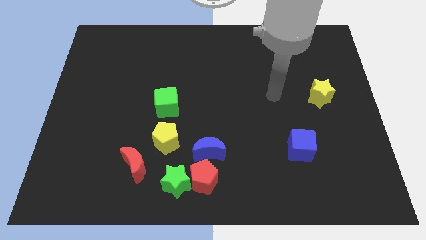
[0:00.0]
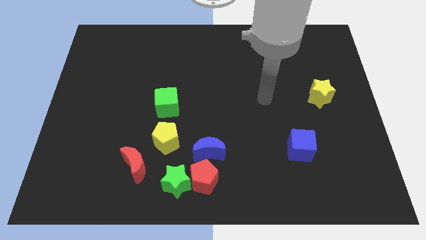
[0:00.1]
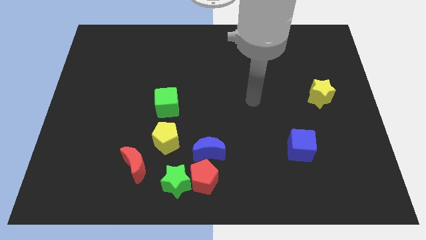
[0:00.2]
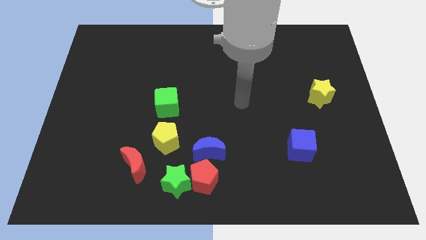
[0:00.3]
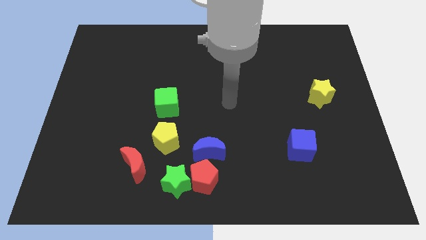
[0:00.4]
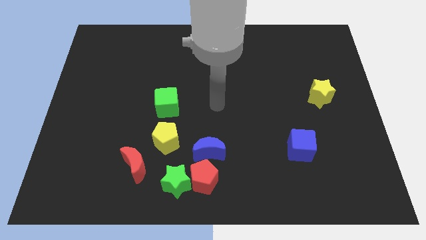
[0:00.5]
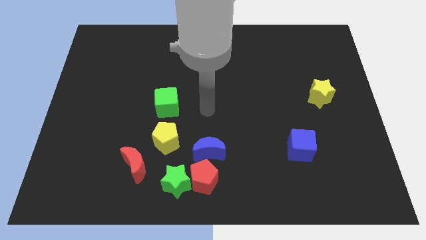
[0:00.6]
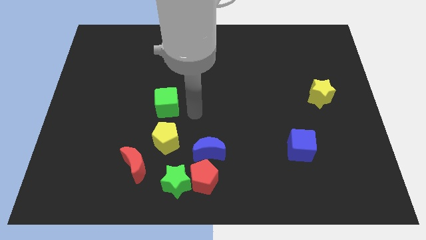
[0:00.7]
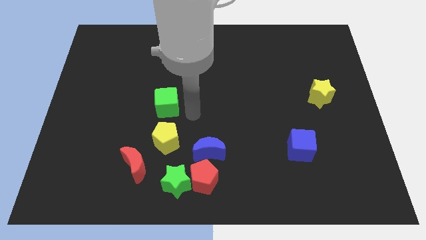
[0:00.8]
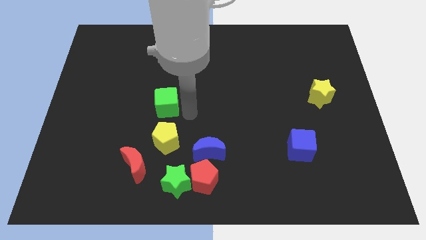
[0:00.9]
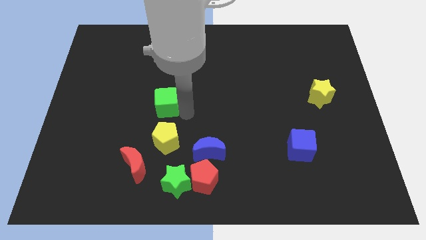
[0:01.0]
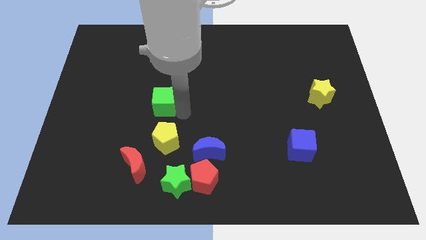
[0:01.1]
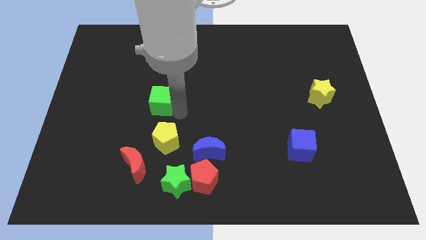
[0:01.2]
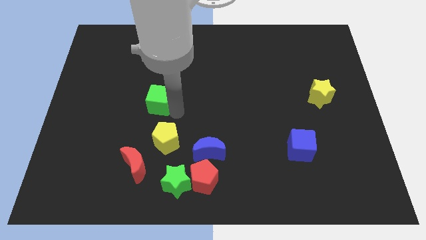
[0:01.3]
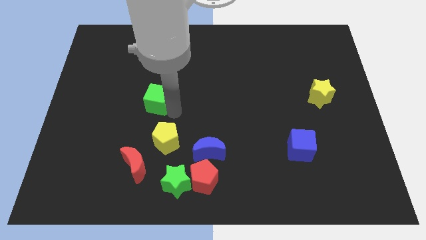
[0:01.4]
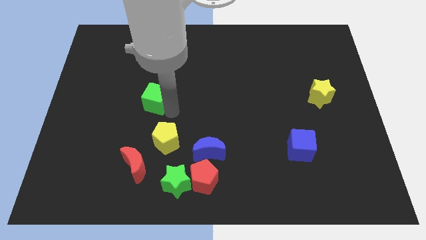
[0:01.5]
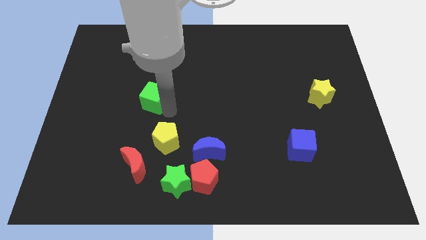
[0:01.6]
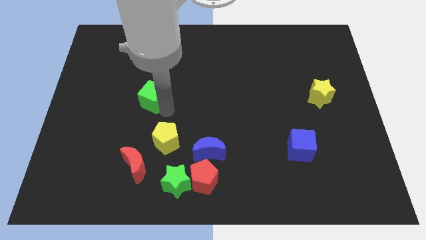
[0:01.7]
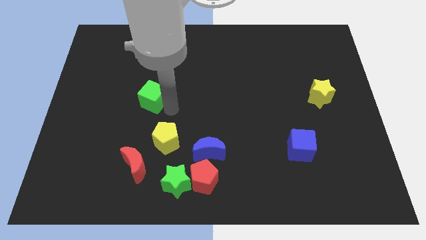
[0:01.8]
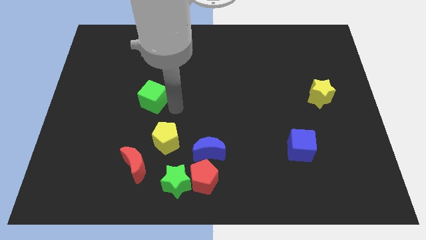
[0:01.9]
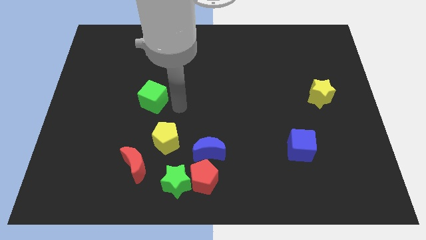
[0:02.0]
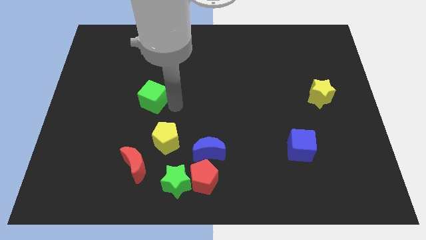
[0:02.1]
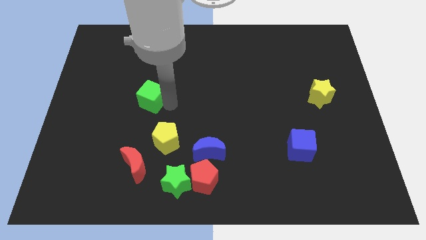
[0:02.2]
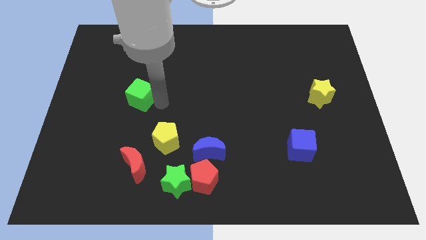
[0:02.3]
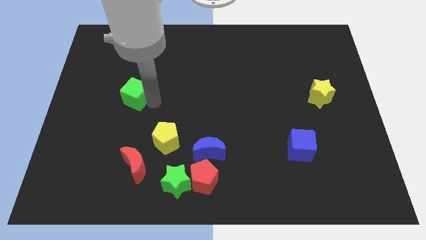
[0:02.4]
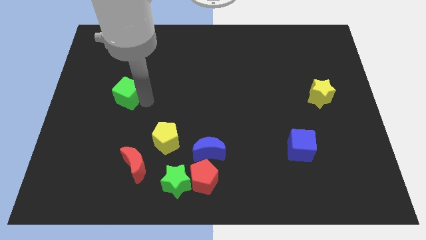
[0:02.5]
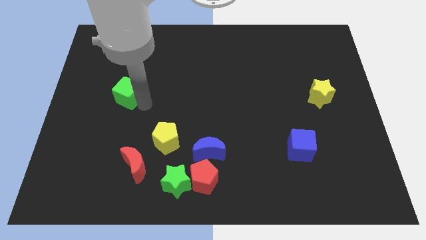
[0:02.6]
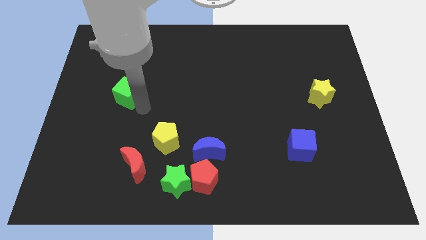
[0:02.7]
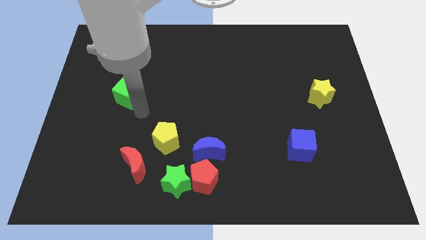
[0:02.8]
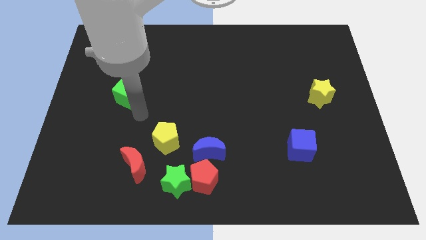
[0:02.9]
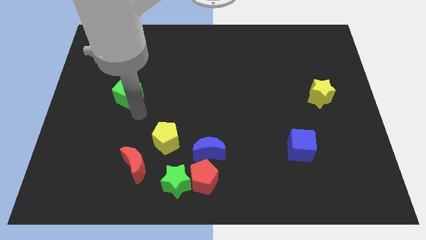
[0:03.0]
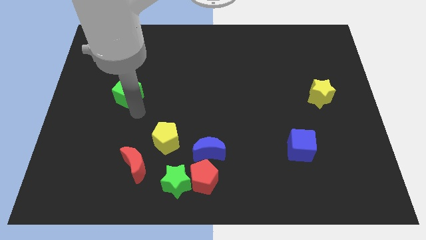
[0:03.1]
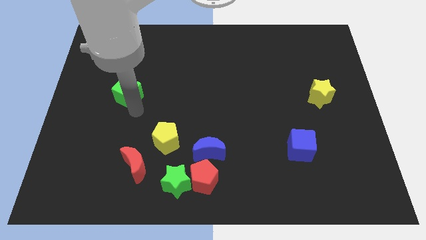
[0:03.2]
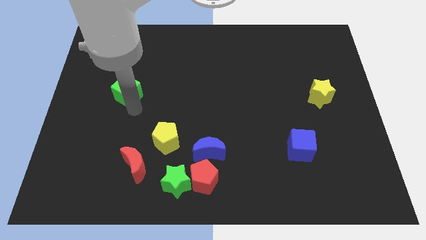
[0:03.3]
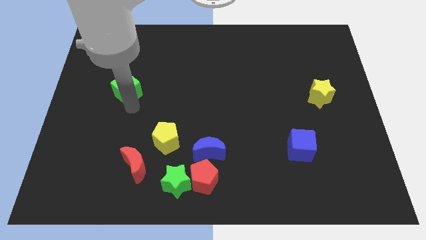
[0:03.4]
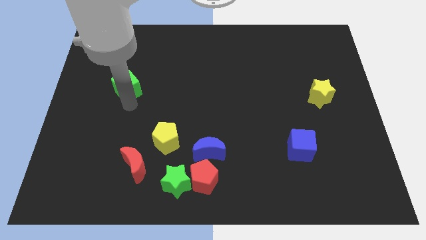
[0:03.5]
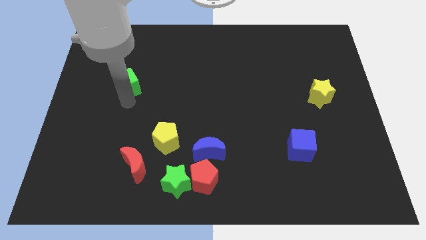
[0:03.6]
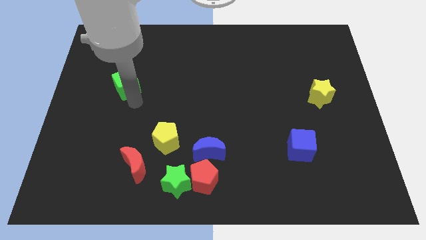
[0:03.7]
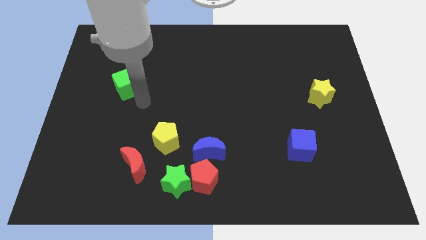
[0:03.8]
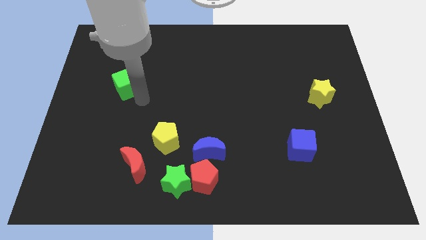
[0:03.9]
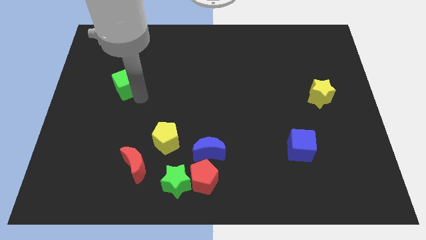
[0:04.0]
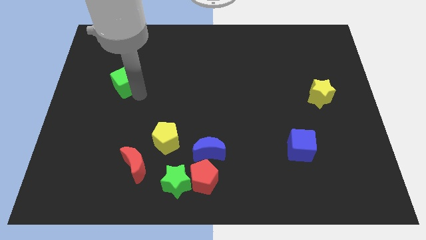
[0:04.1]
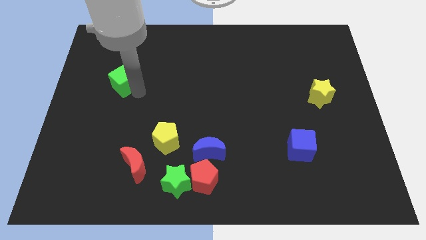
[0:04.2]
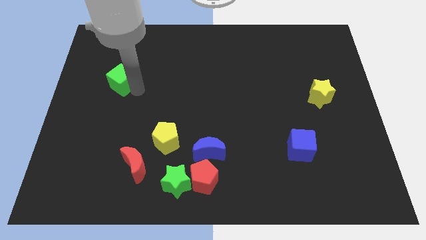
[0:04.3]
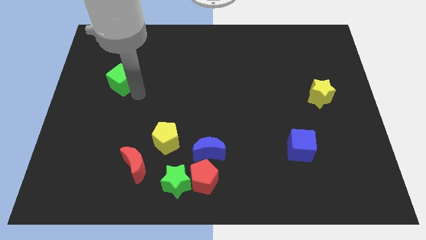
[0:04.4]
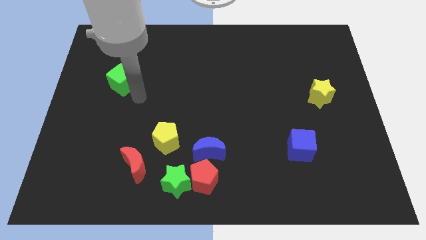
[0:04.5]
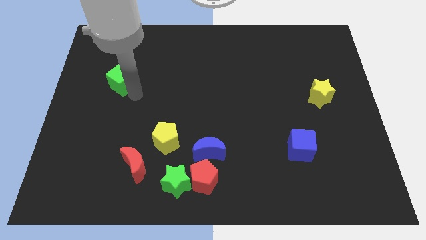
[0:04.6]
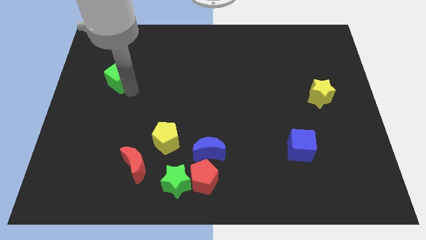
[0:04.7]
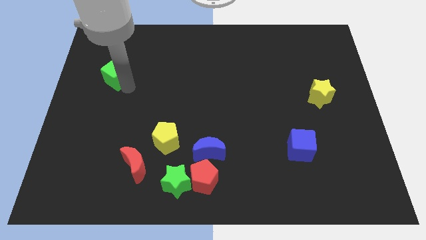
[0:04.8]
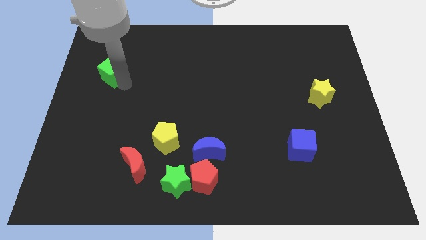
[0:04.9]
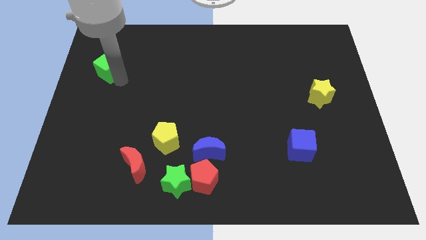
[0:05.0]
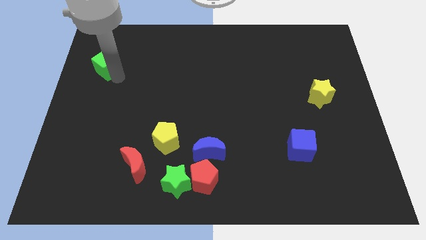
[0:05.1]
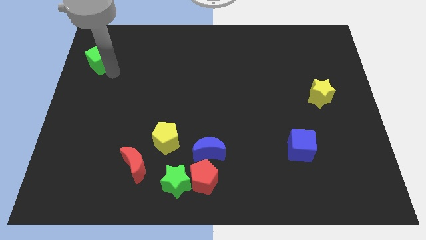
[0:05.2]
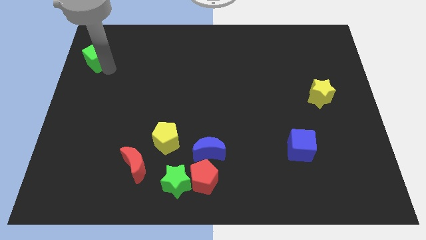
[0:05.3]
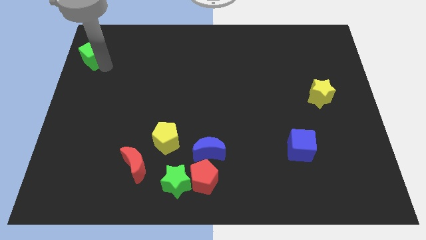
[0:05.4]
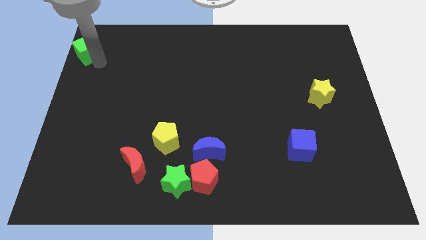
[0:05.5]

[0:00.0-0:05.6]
move the green cube to the top left corner
